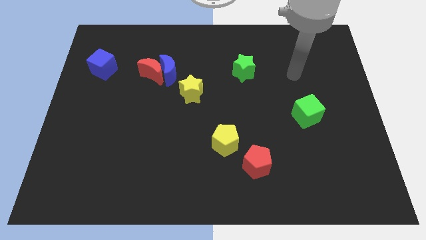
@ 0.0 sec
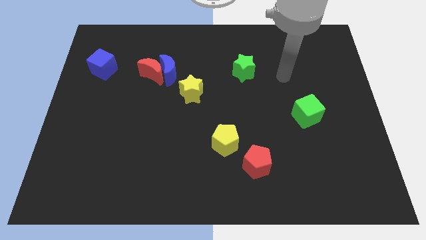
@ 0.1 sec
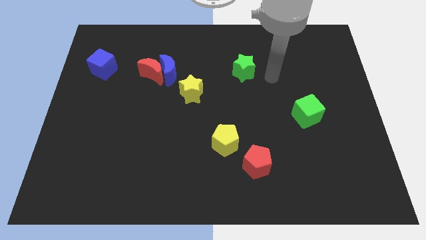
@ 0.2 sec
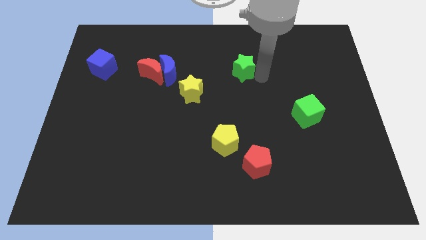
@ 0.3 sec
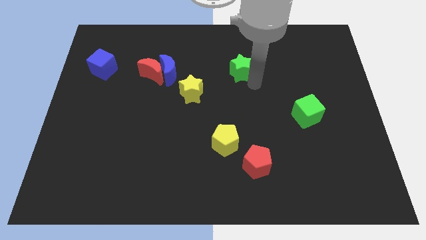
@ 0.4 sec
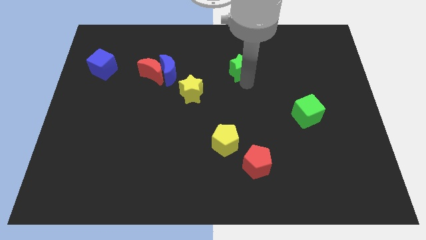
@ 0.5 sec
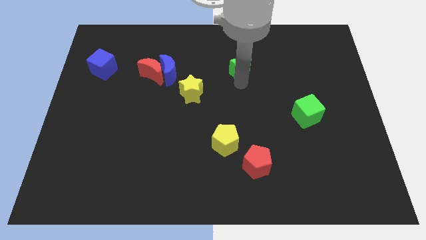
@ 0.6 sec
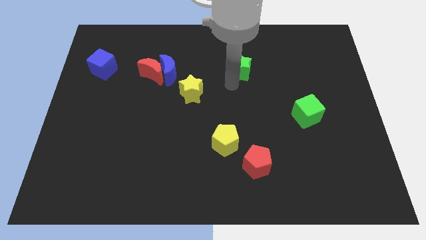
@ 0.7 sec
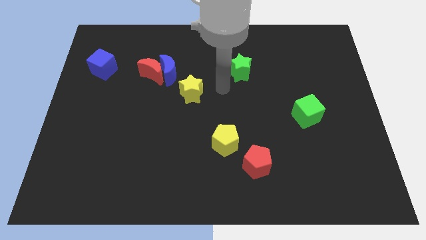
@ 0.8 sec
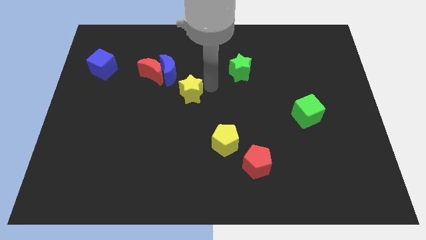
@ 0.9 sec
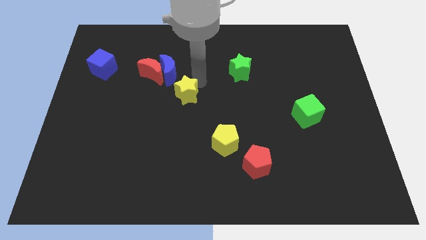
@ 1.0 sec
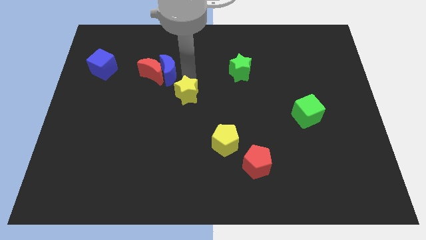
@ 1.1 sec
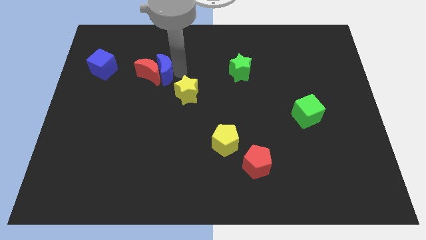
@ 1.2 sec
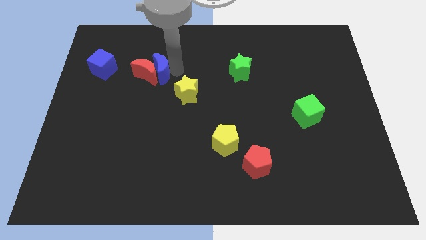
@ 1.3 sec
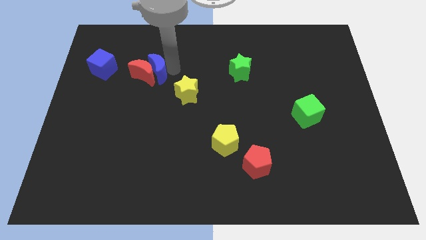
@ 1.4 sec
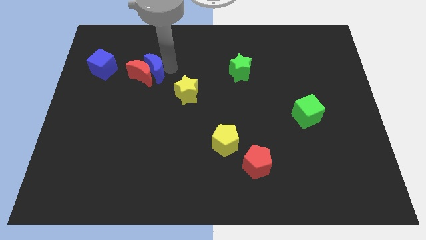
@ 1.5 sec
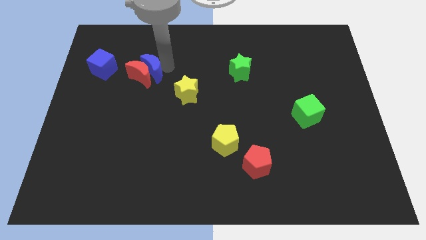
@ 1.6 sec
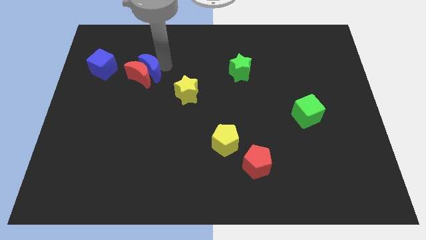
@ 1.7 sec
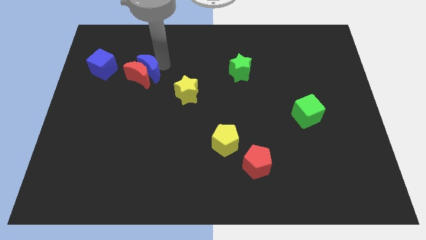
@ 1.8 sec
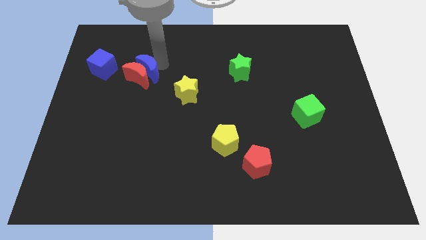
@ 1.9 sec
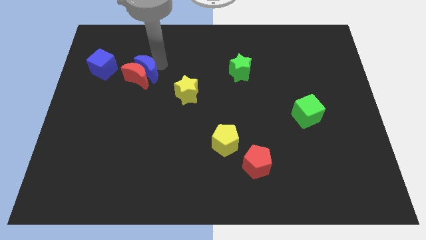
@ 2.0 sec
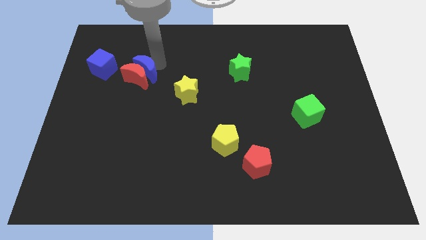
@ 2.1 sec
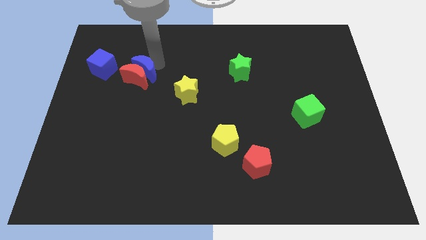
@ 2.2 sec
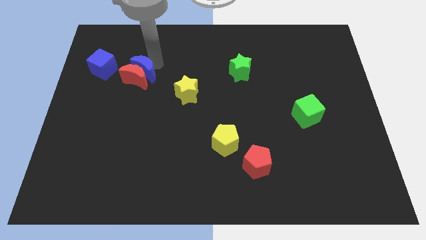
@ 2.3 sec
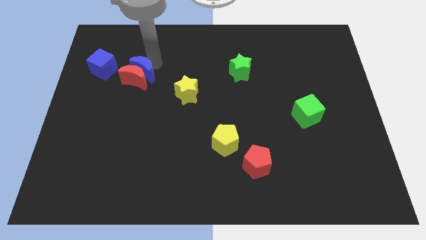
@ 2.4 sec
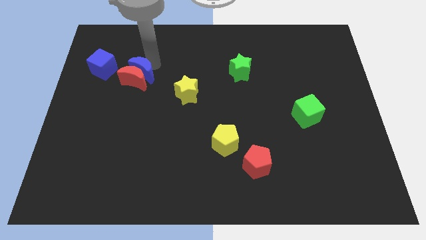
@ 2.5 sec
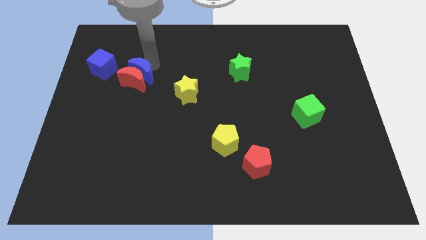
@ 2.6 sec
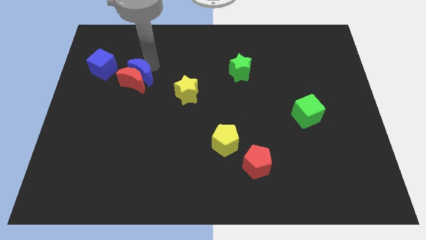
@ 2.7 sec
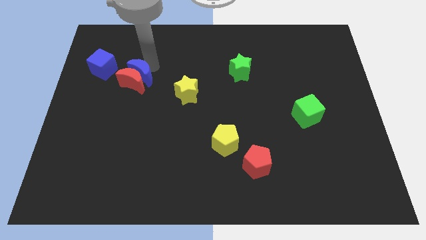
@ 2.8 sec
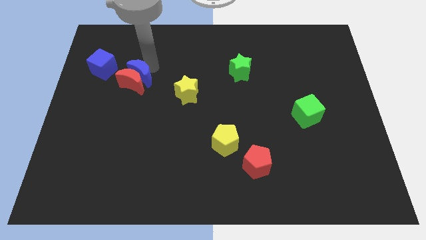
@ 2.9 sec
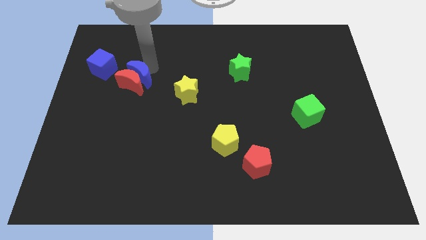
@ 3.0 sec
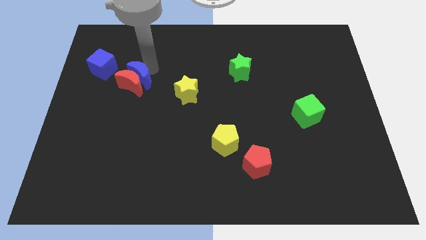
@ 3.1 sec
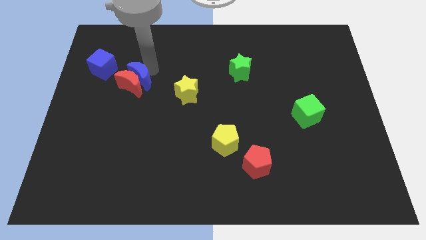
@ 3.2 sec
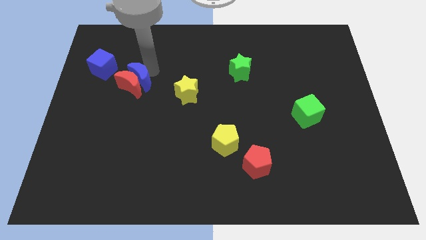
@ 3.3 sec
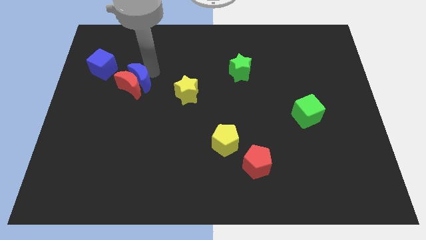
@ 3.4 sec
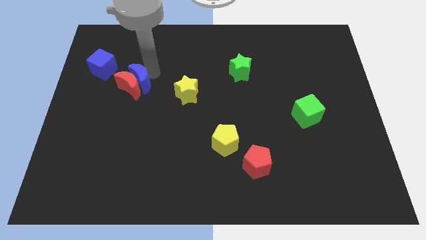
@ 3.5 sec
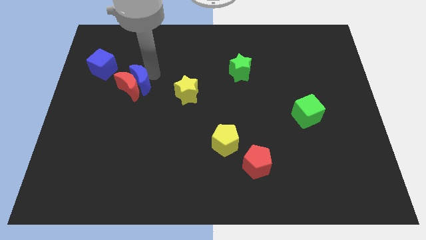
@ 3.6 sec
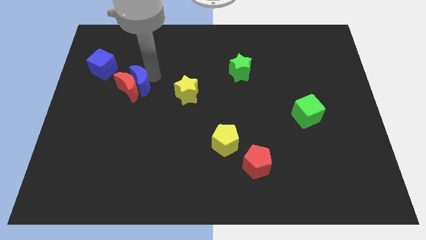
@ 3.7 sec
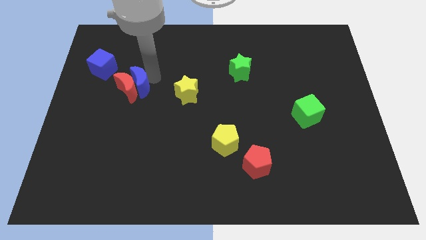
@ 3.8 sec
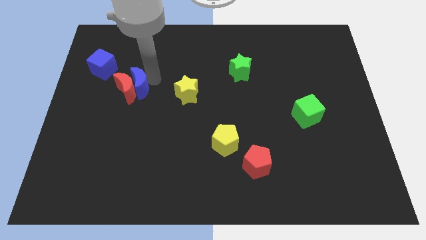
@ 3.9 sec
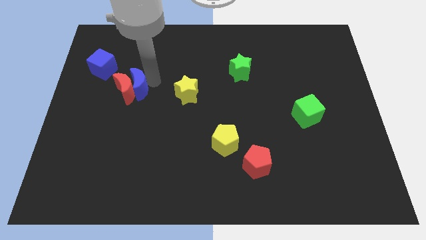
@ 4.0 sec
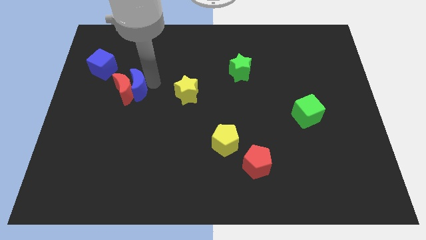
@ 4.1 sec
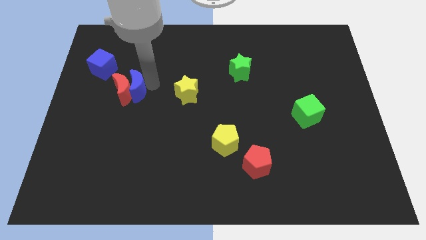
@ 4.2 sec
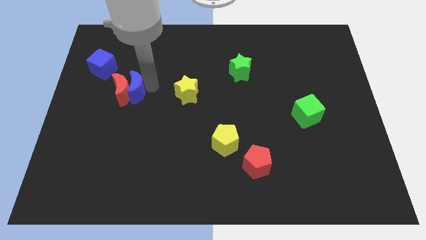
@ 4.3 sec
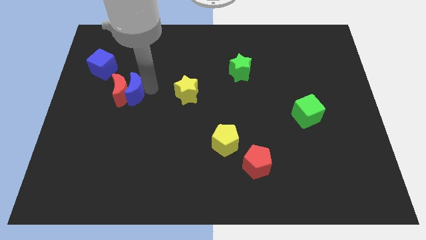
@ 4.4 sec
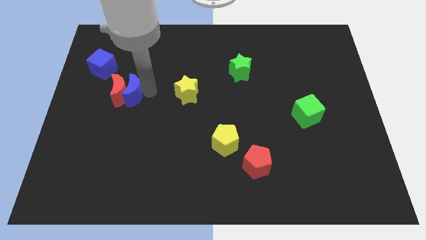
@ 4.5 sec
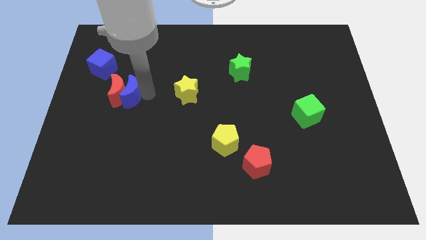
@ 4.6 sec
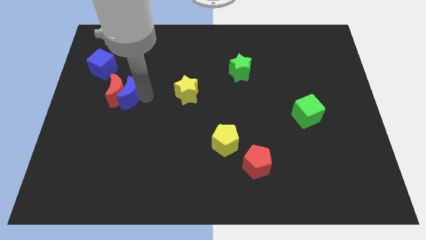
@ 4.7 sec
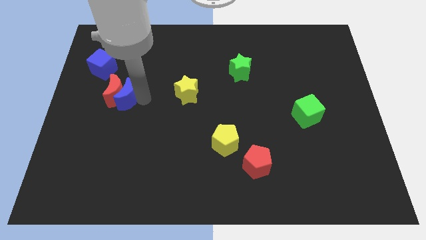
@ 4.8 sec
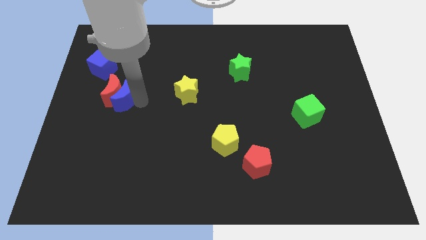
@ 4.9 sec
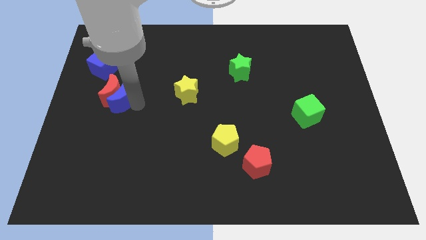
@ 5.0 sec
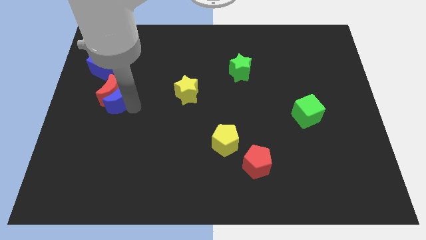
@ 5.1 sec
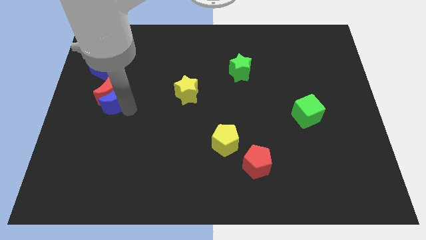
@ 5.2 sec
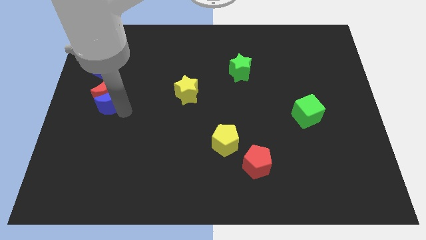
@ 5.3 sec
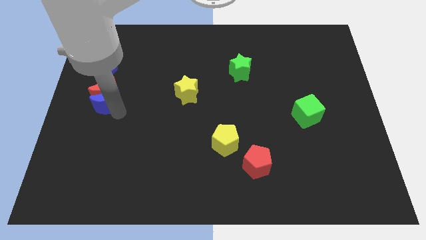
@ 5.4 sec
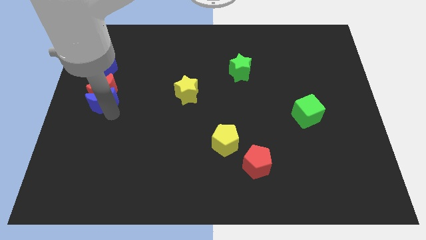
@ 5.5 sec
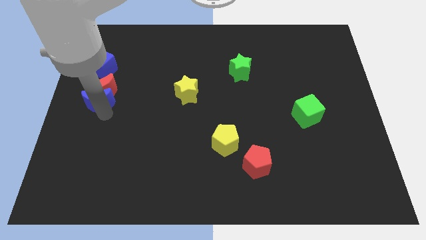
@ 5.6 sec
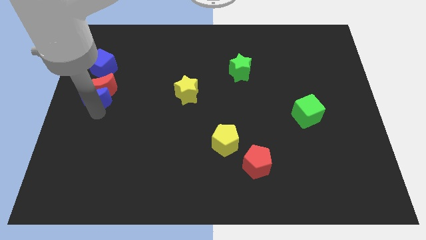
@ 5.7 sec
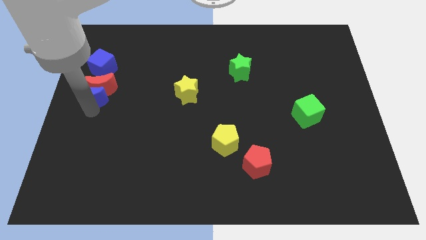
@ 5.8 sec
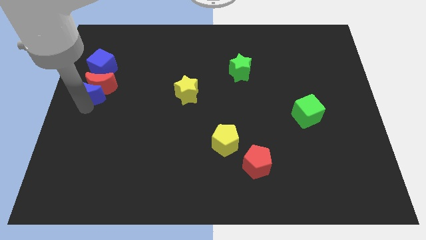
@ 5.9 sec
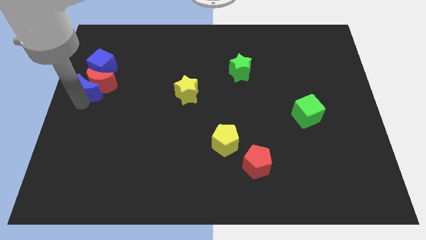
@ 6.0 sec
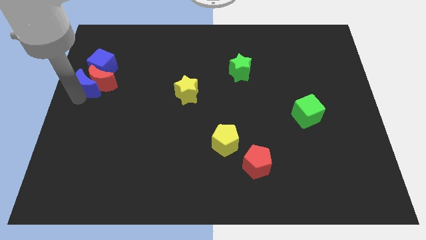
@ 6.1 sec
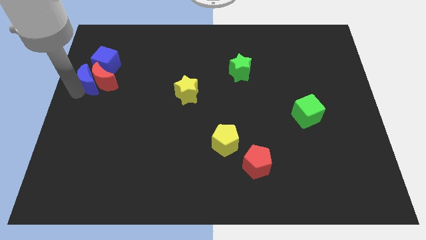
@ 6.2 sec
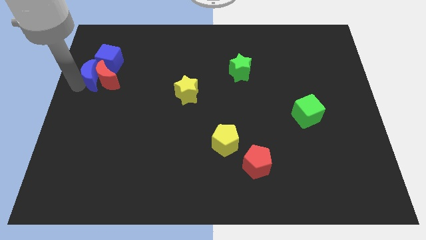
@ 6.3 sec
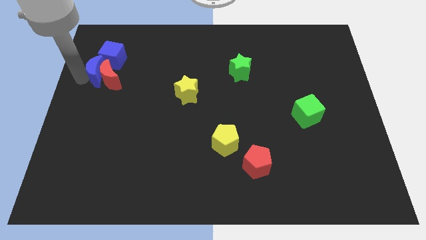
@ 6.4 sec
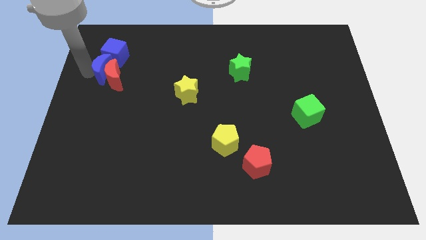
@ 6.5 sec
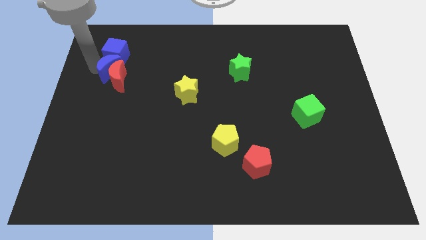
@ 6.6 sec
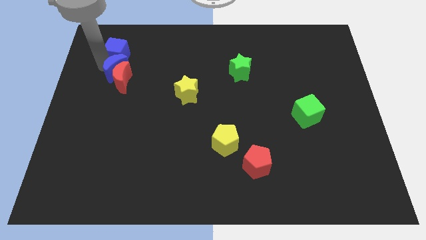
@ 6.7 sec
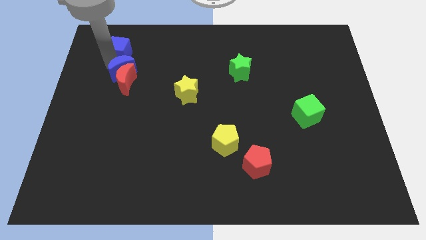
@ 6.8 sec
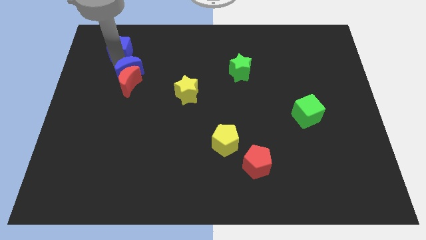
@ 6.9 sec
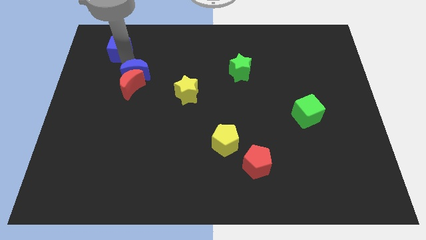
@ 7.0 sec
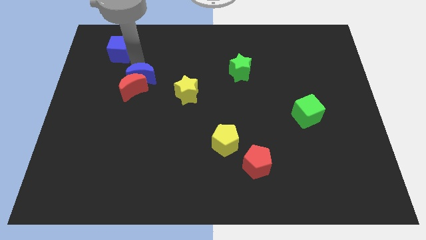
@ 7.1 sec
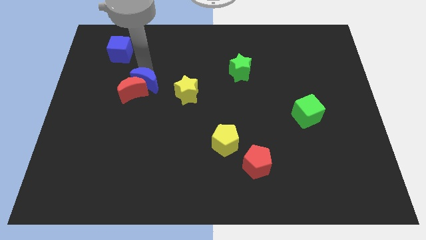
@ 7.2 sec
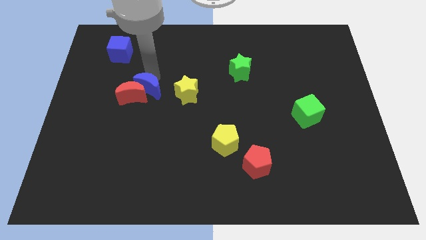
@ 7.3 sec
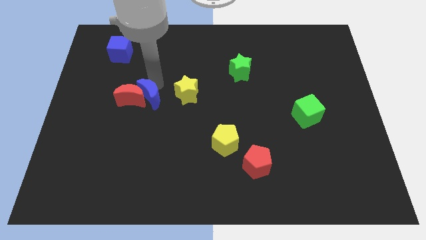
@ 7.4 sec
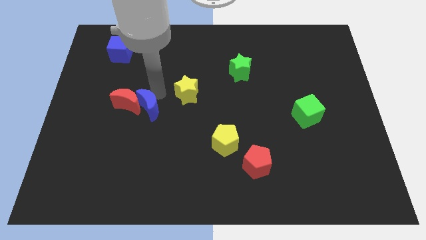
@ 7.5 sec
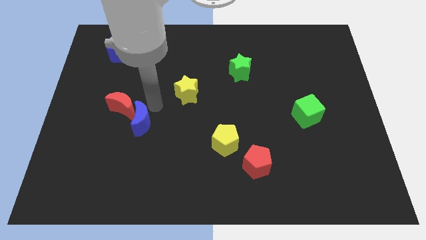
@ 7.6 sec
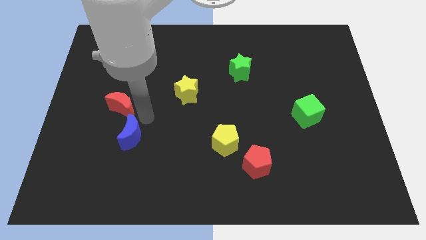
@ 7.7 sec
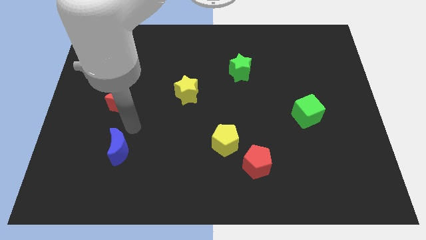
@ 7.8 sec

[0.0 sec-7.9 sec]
pull the red moon apart from the blue moon

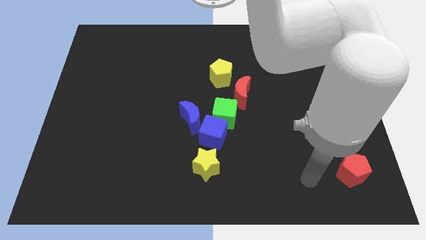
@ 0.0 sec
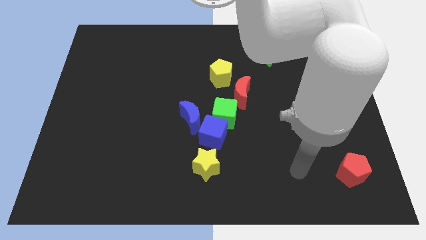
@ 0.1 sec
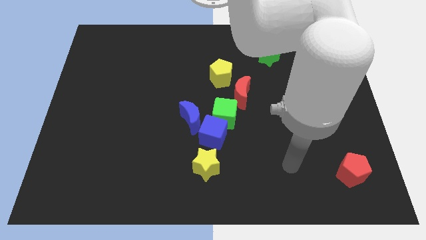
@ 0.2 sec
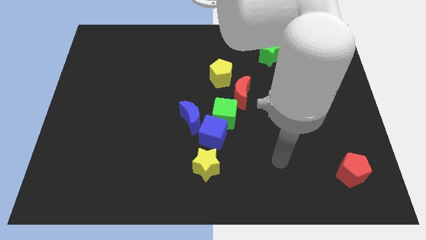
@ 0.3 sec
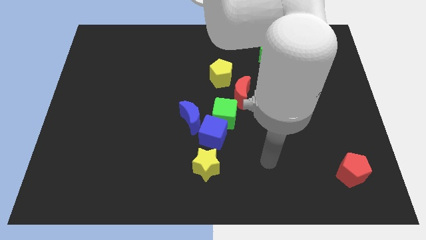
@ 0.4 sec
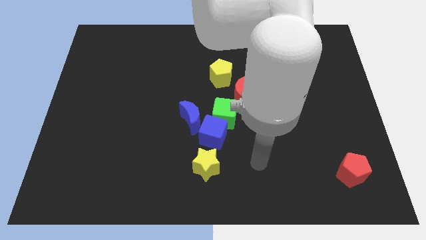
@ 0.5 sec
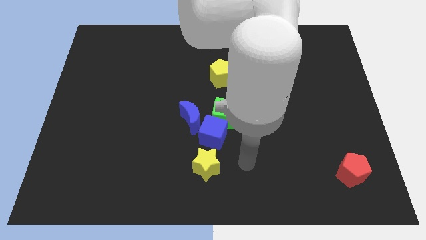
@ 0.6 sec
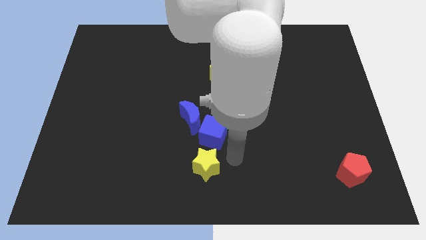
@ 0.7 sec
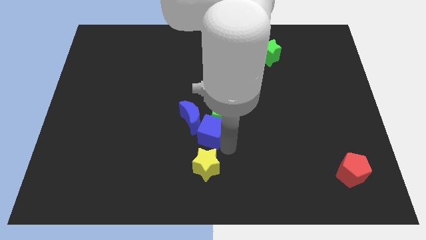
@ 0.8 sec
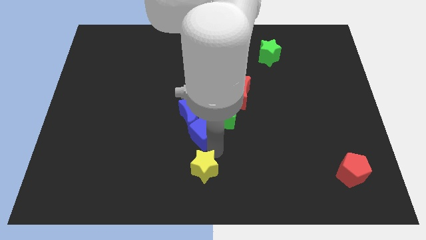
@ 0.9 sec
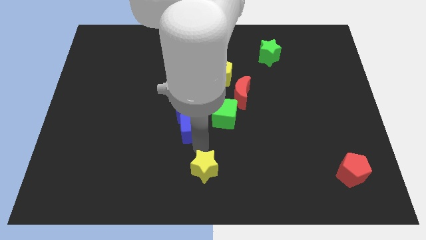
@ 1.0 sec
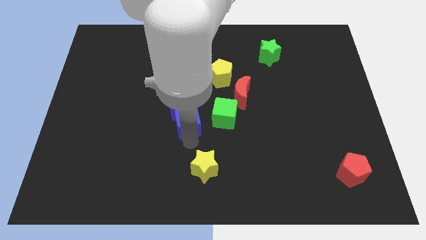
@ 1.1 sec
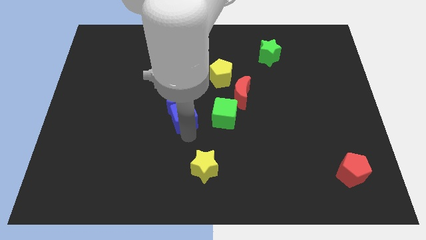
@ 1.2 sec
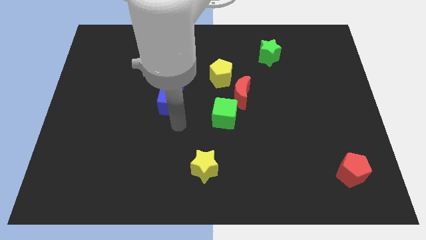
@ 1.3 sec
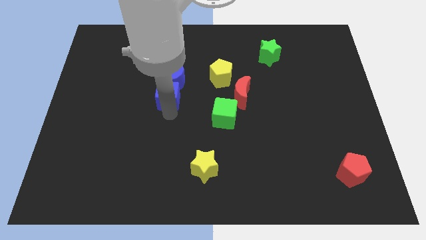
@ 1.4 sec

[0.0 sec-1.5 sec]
separate the blue cube from the green cube, blue moon, and yellow star
